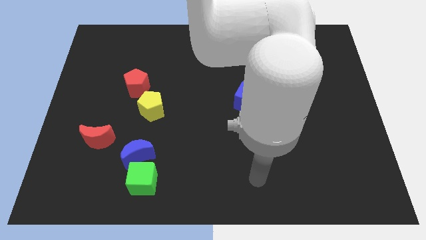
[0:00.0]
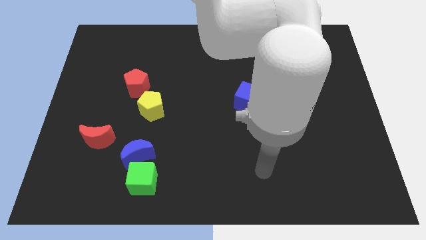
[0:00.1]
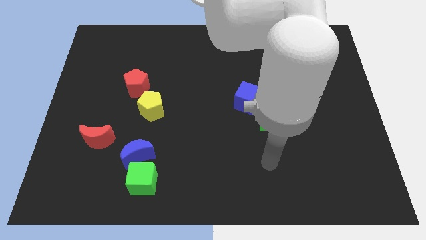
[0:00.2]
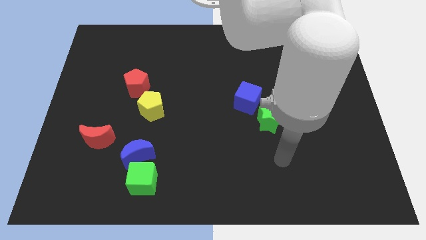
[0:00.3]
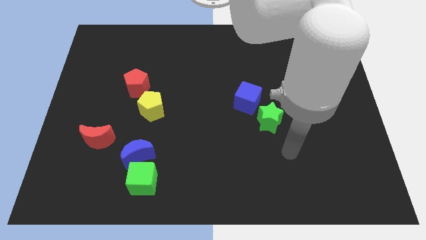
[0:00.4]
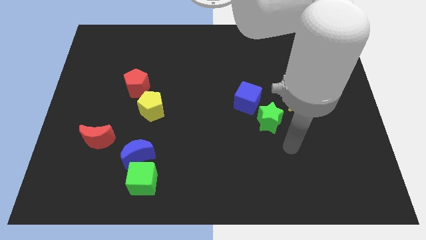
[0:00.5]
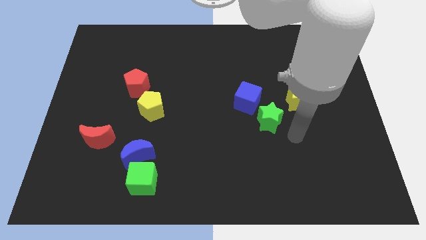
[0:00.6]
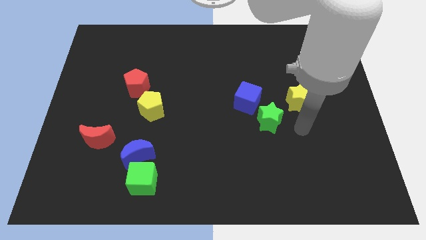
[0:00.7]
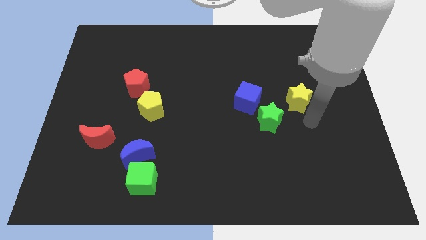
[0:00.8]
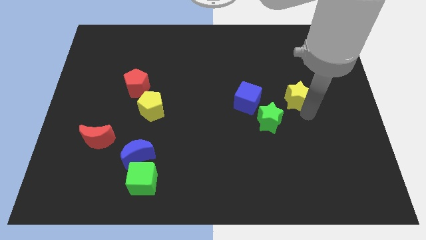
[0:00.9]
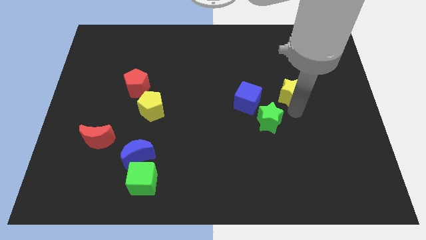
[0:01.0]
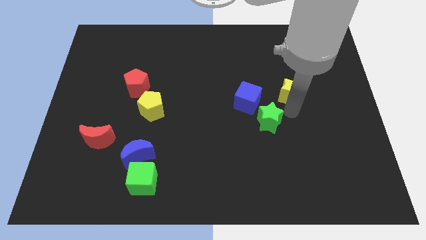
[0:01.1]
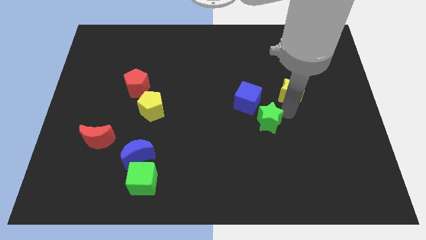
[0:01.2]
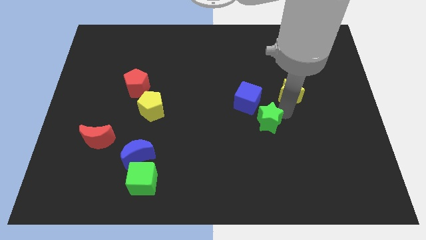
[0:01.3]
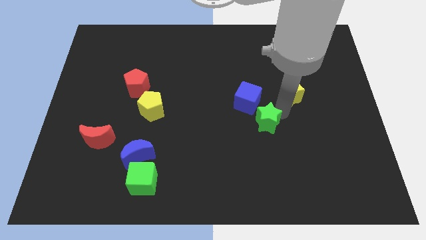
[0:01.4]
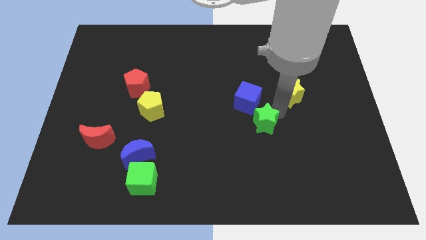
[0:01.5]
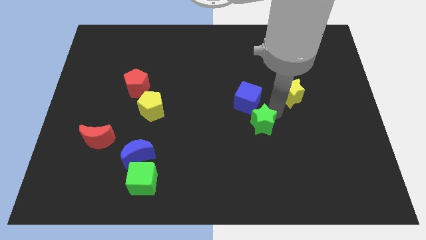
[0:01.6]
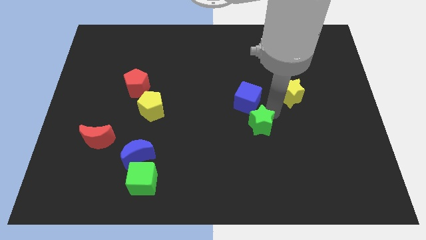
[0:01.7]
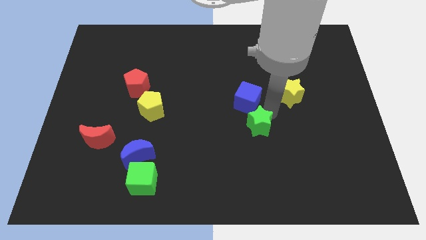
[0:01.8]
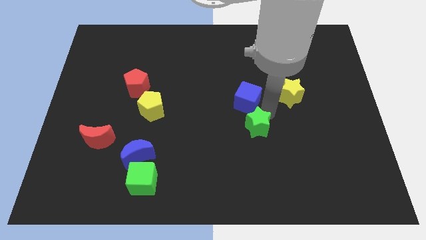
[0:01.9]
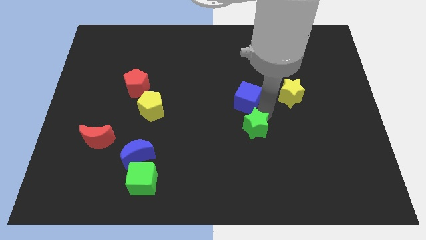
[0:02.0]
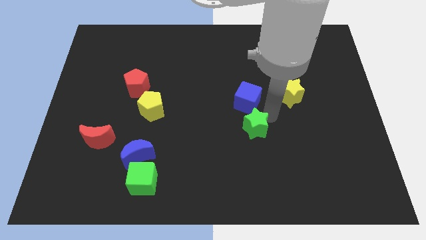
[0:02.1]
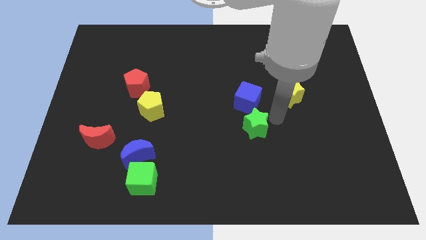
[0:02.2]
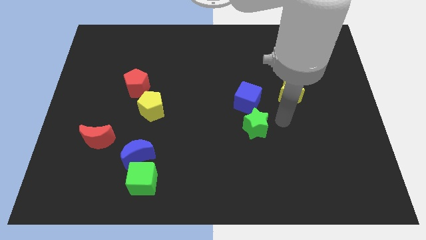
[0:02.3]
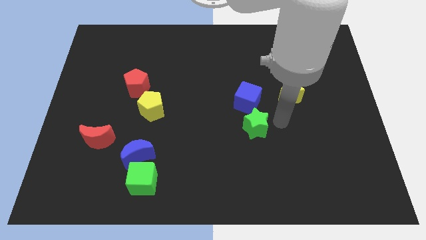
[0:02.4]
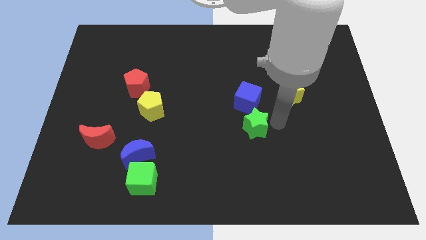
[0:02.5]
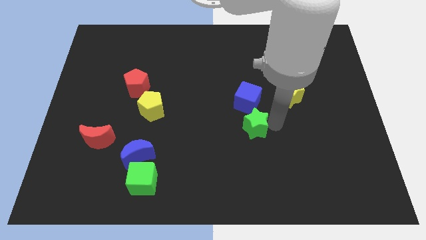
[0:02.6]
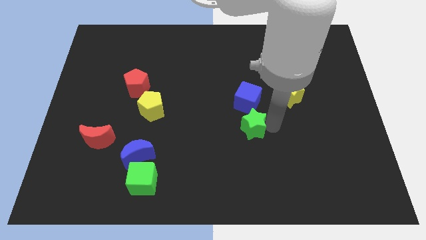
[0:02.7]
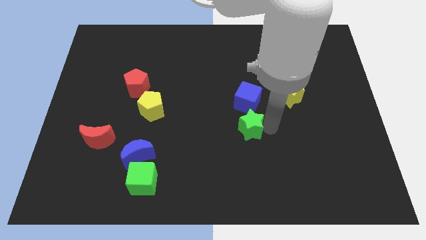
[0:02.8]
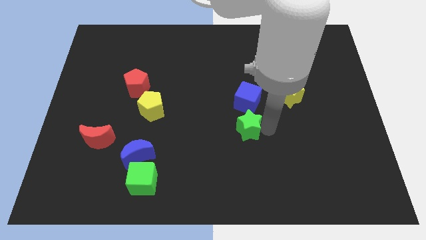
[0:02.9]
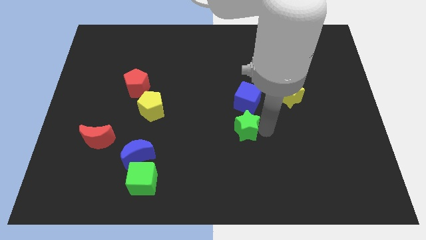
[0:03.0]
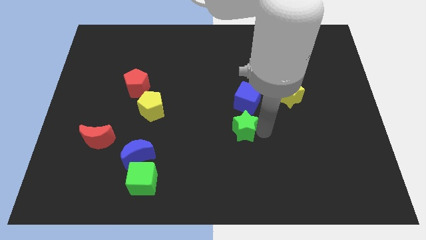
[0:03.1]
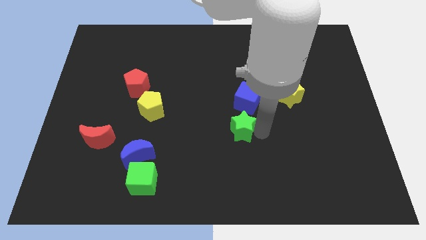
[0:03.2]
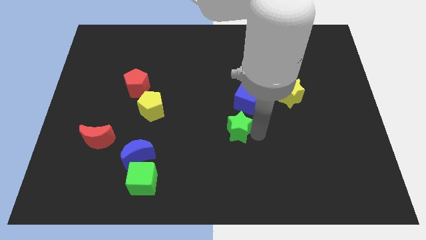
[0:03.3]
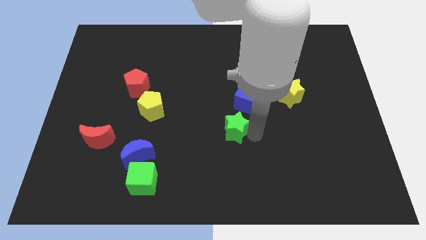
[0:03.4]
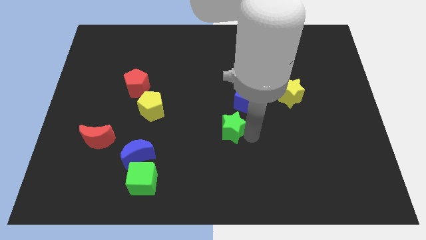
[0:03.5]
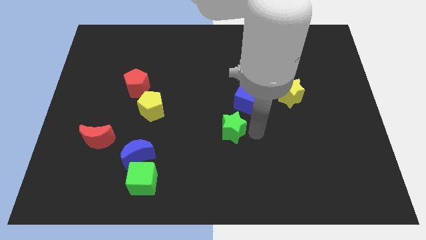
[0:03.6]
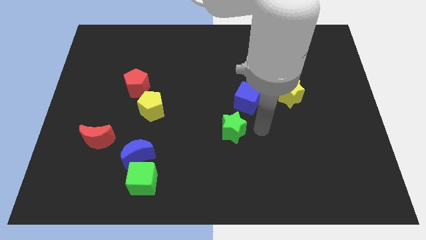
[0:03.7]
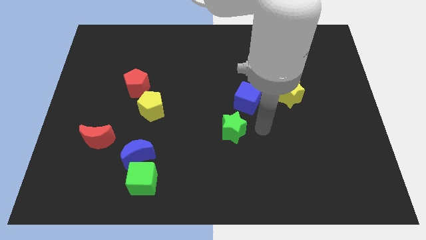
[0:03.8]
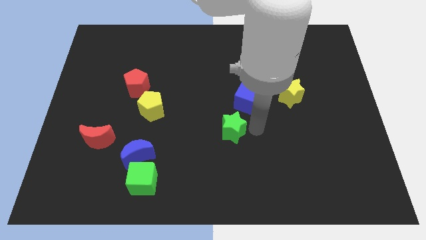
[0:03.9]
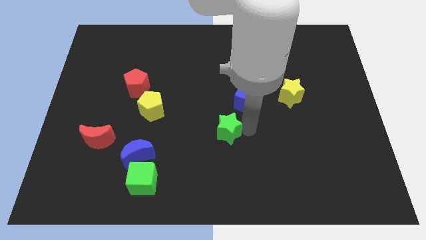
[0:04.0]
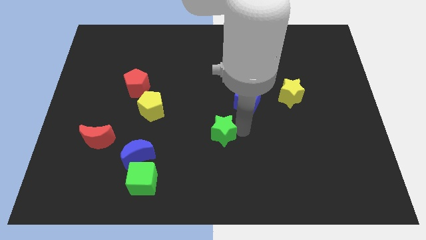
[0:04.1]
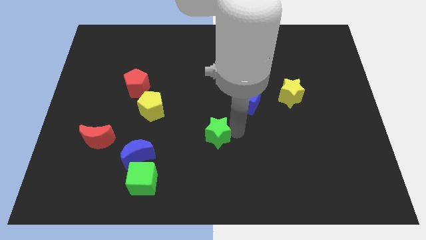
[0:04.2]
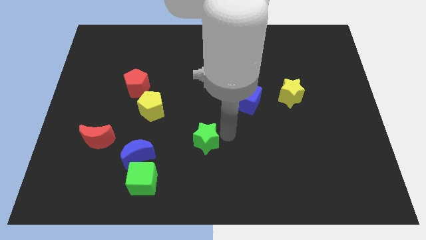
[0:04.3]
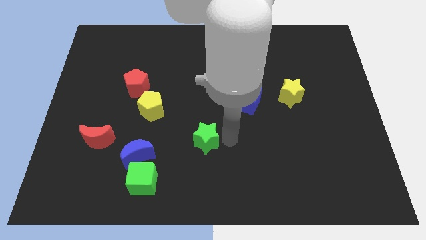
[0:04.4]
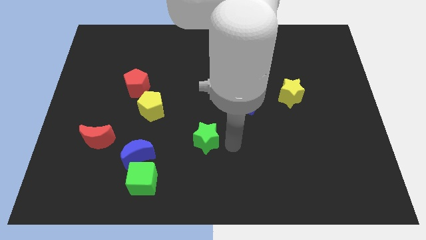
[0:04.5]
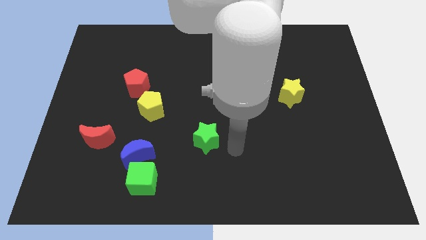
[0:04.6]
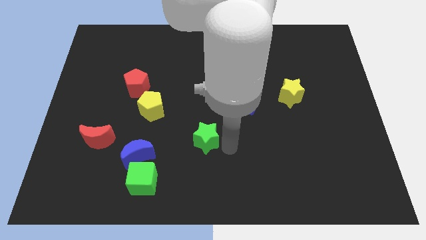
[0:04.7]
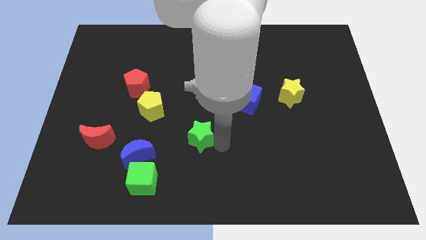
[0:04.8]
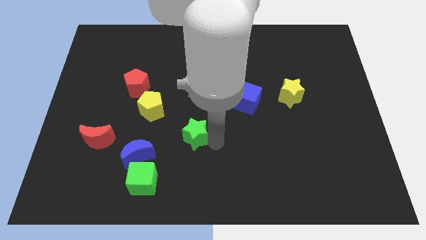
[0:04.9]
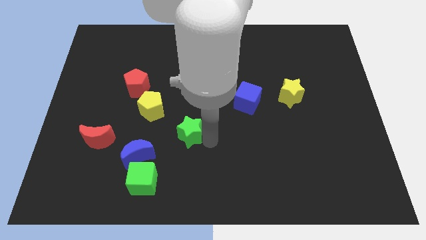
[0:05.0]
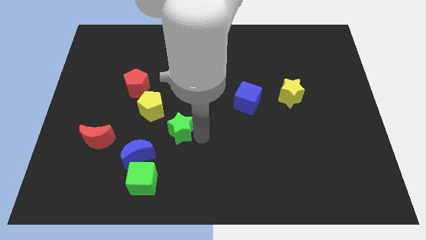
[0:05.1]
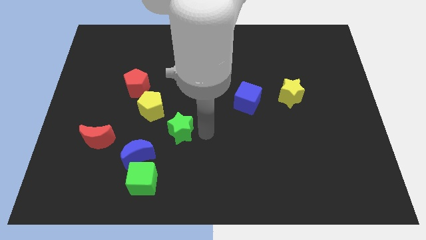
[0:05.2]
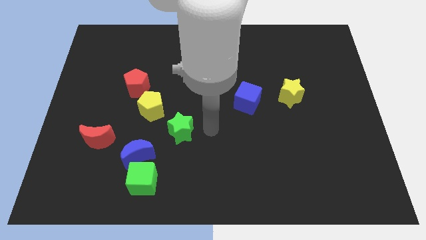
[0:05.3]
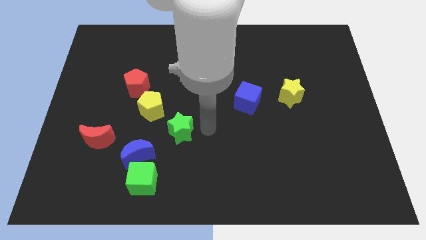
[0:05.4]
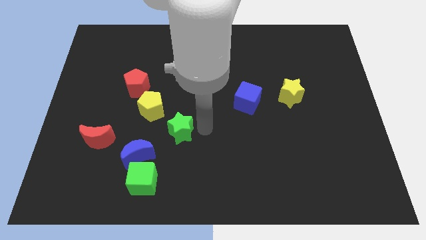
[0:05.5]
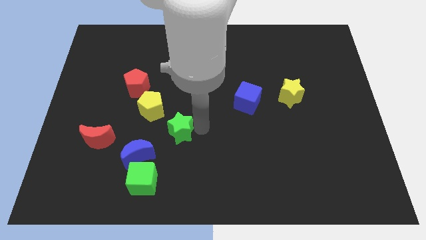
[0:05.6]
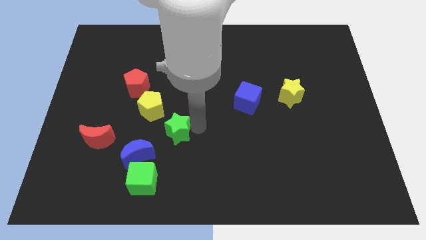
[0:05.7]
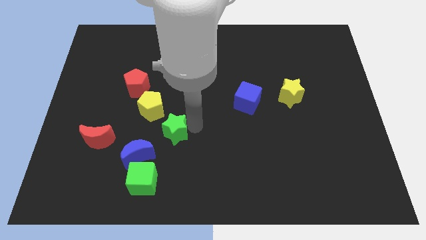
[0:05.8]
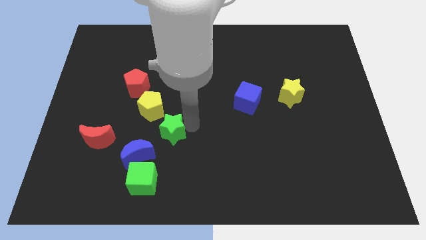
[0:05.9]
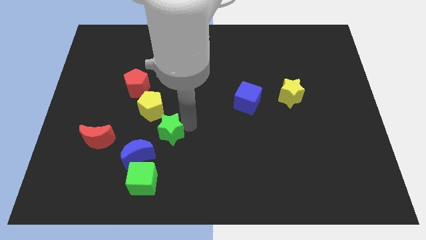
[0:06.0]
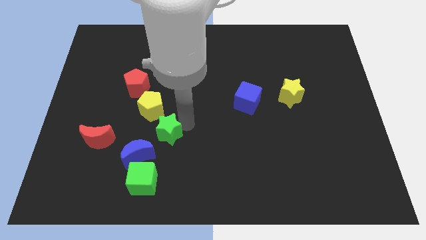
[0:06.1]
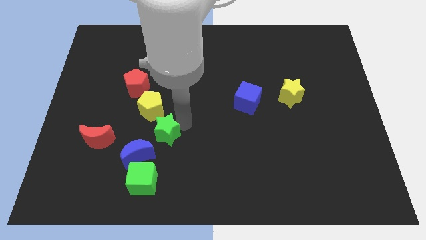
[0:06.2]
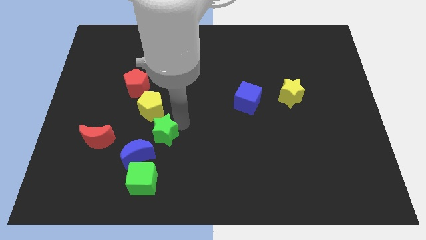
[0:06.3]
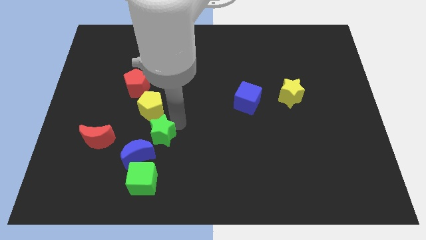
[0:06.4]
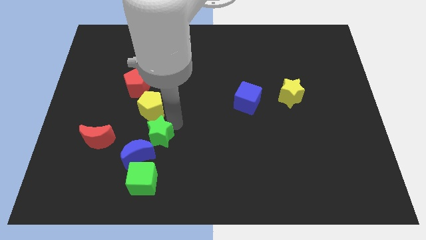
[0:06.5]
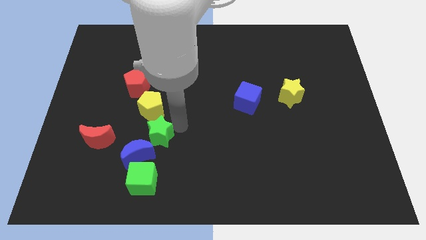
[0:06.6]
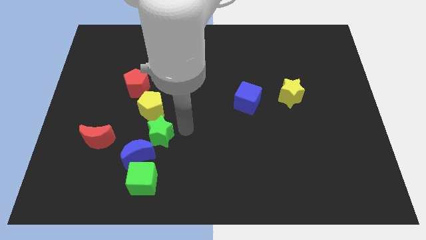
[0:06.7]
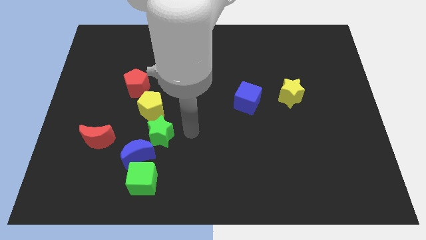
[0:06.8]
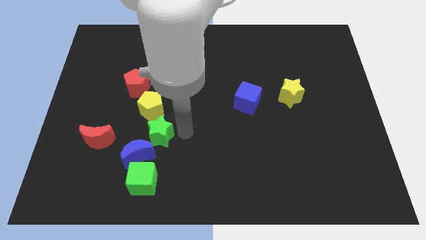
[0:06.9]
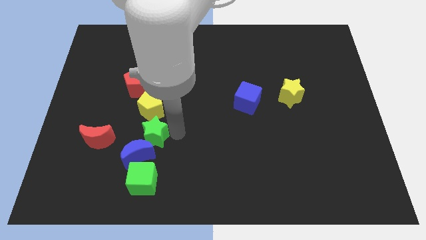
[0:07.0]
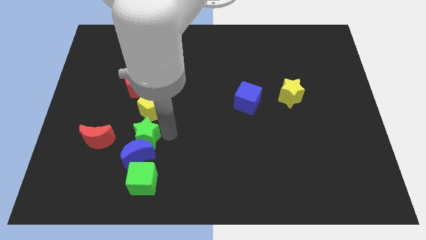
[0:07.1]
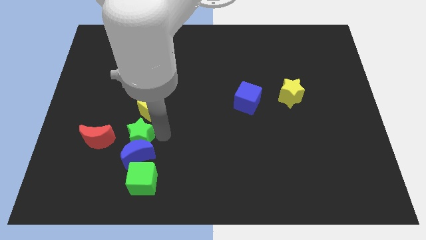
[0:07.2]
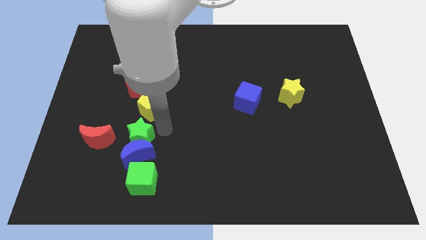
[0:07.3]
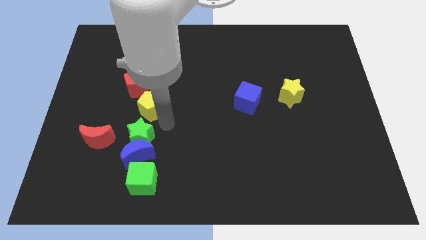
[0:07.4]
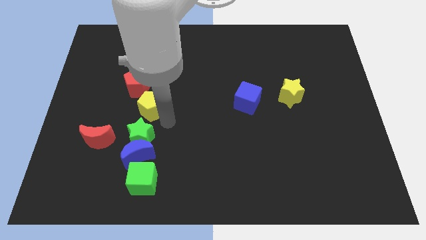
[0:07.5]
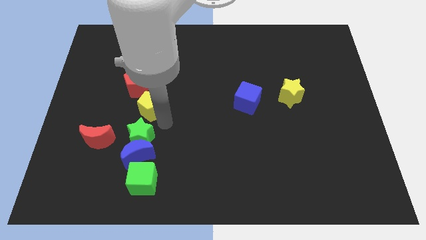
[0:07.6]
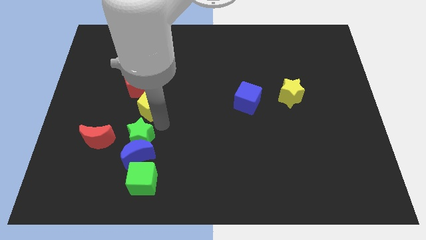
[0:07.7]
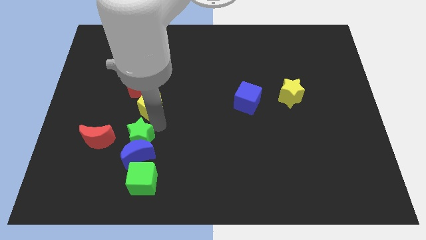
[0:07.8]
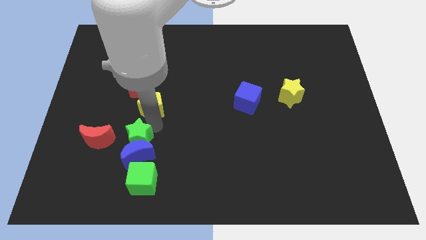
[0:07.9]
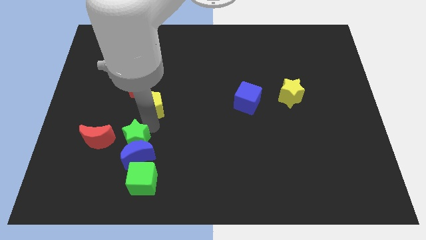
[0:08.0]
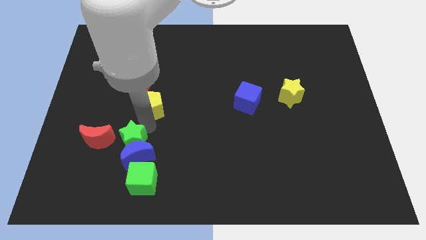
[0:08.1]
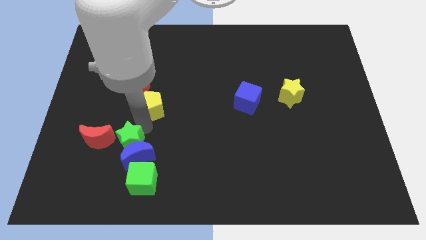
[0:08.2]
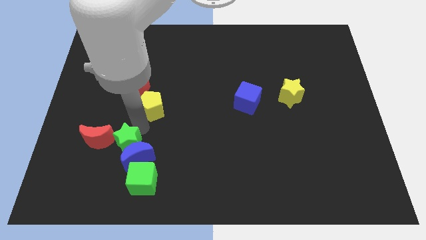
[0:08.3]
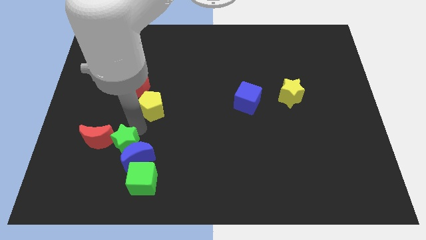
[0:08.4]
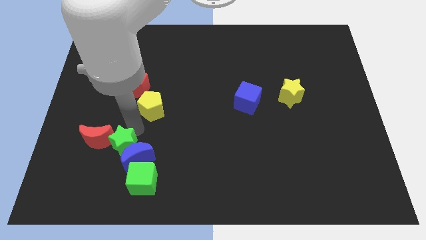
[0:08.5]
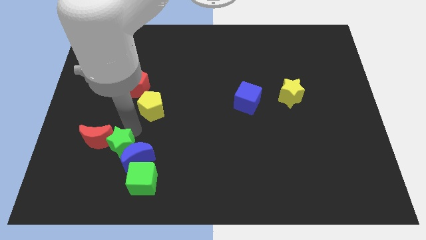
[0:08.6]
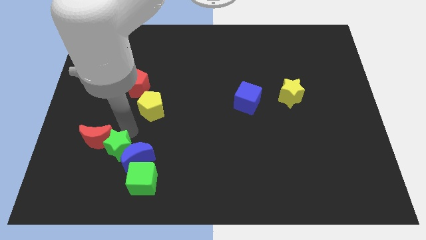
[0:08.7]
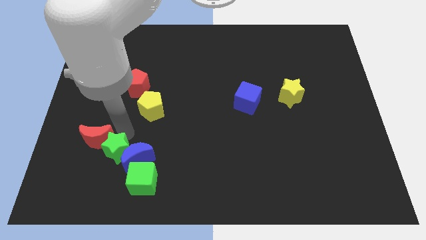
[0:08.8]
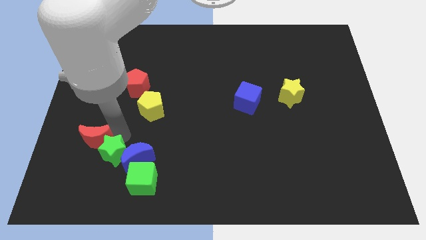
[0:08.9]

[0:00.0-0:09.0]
move the green star below the red moon
